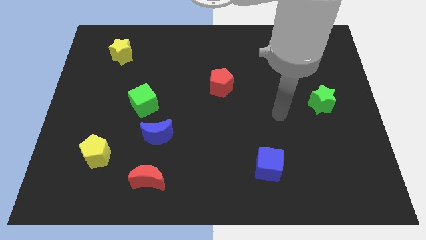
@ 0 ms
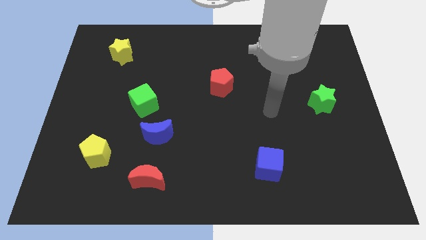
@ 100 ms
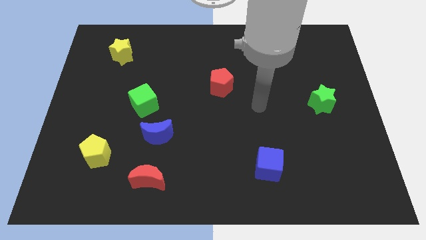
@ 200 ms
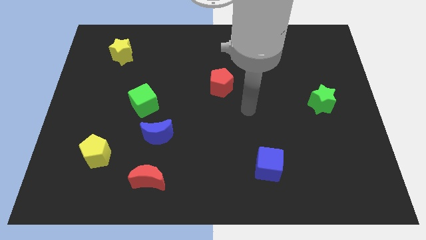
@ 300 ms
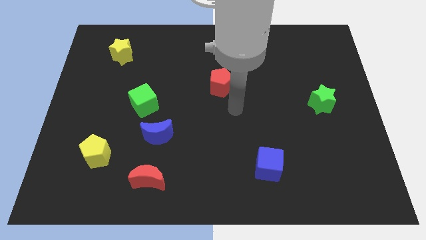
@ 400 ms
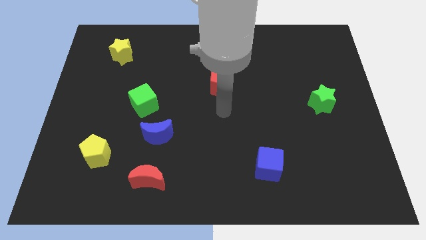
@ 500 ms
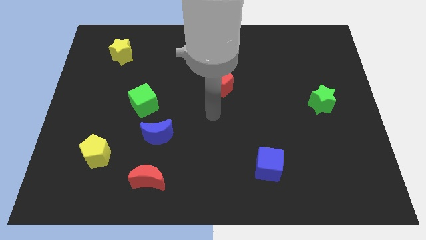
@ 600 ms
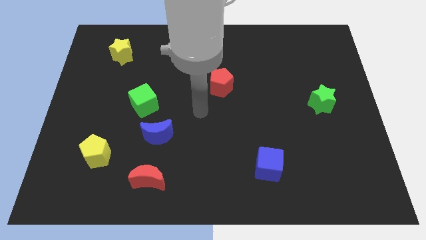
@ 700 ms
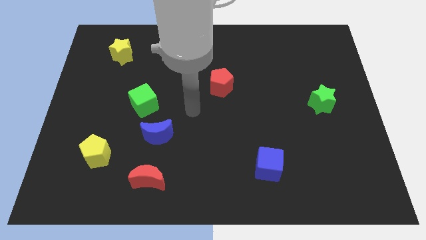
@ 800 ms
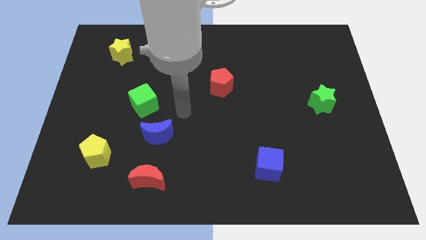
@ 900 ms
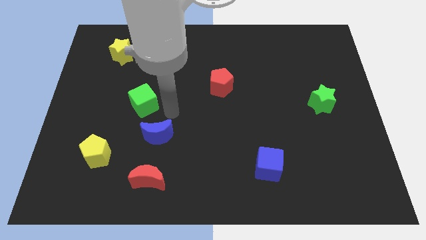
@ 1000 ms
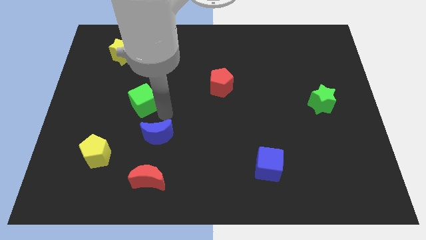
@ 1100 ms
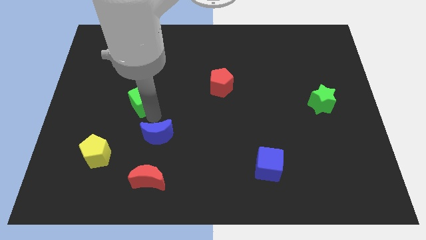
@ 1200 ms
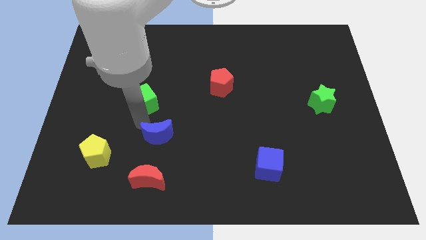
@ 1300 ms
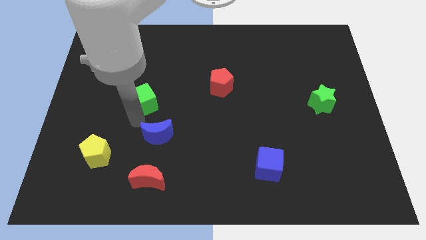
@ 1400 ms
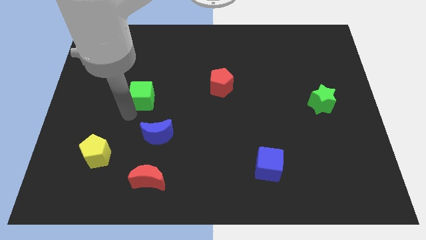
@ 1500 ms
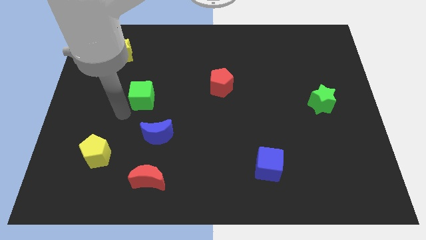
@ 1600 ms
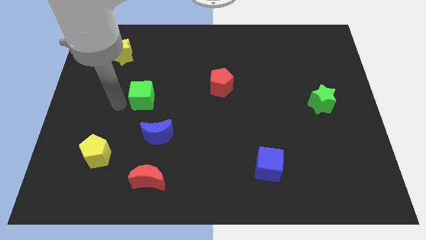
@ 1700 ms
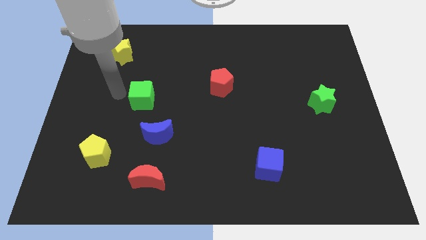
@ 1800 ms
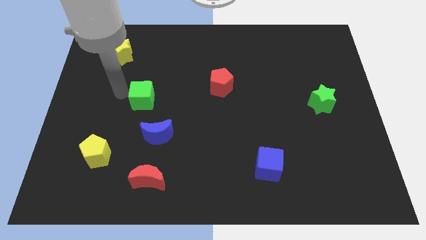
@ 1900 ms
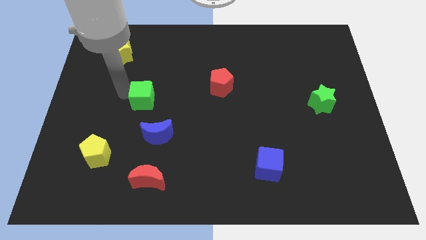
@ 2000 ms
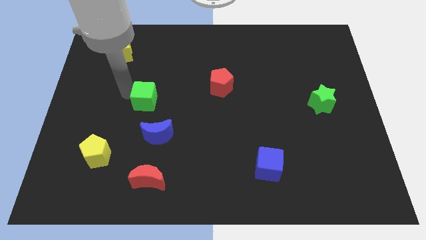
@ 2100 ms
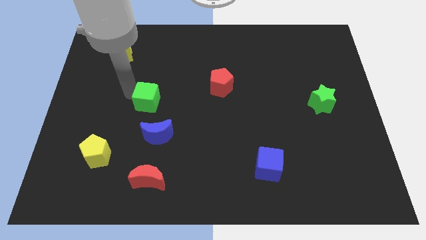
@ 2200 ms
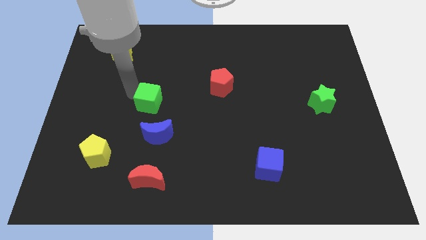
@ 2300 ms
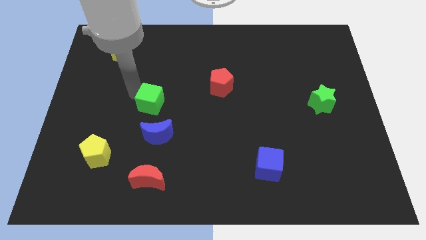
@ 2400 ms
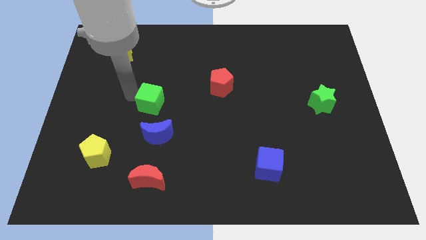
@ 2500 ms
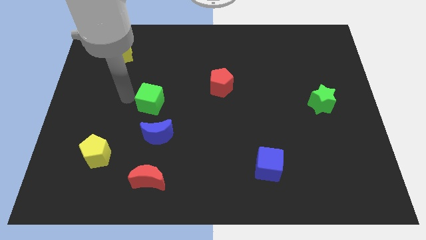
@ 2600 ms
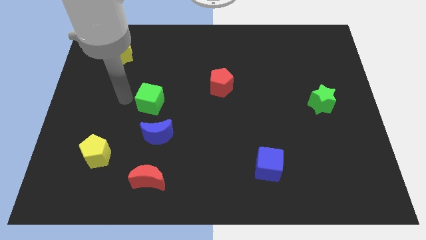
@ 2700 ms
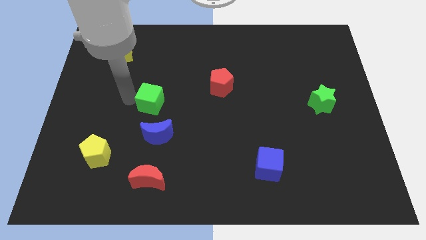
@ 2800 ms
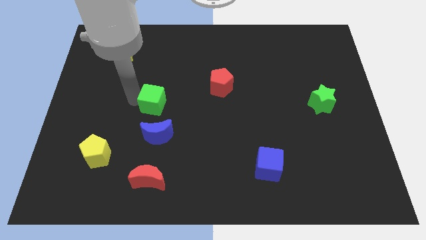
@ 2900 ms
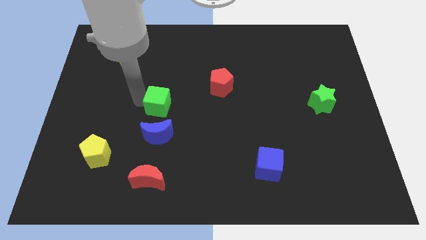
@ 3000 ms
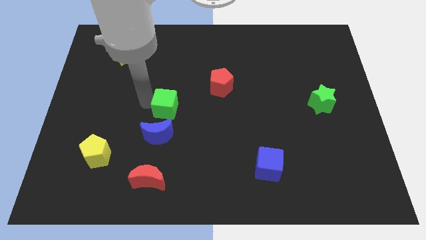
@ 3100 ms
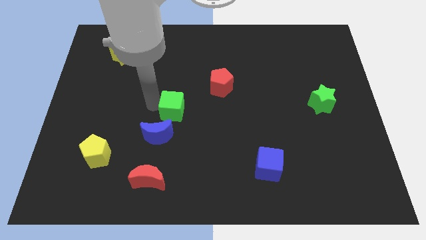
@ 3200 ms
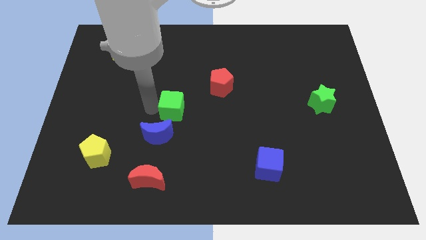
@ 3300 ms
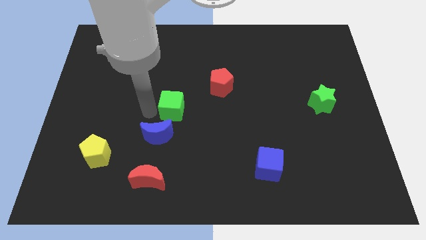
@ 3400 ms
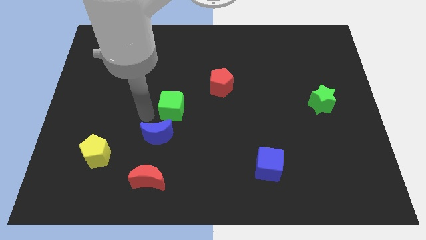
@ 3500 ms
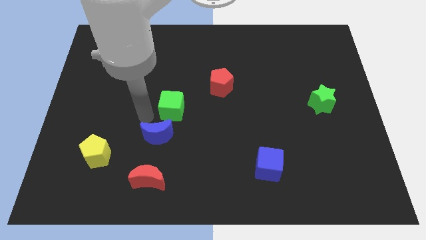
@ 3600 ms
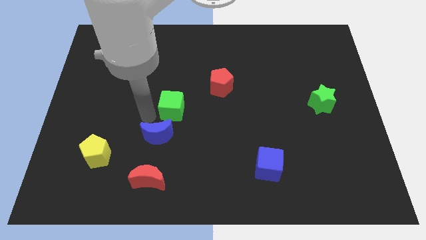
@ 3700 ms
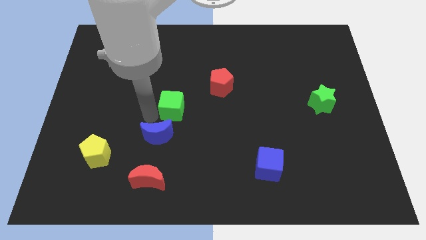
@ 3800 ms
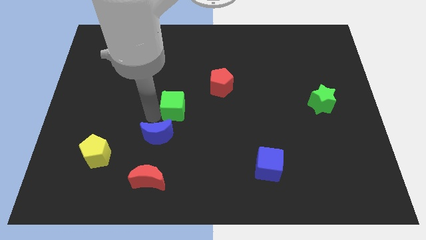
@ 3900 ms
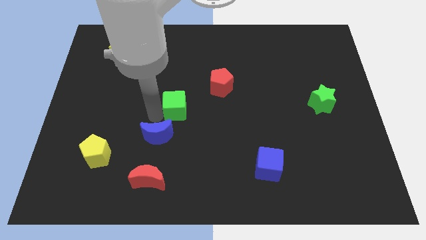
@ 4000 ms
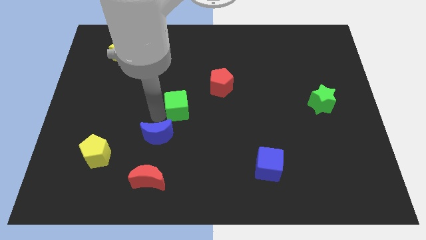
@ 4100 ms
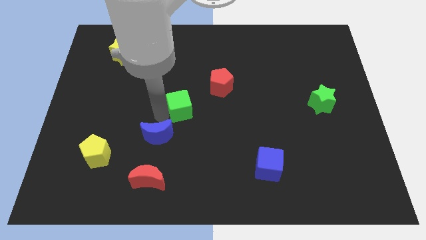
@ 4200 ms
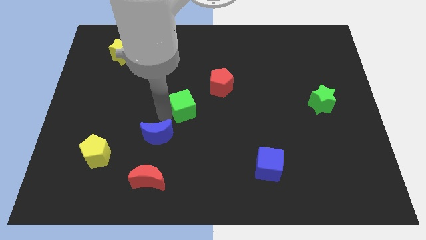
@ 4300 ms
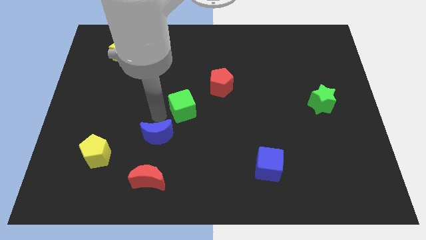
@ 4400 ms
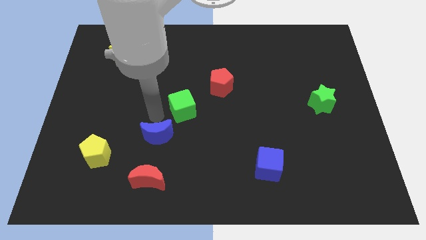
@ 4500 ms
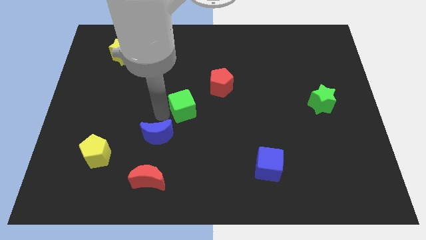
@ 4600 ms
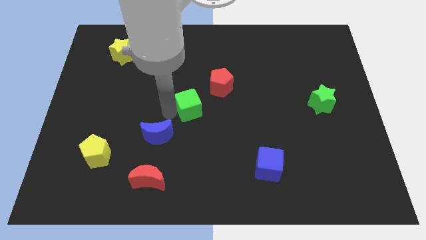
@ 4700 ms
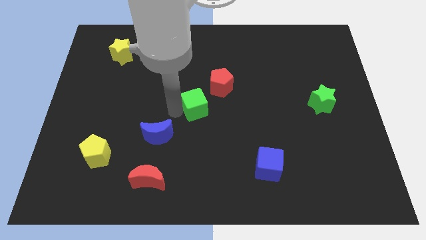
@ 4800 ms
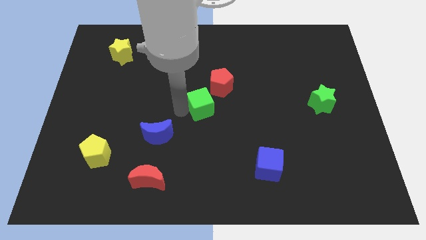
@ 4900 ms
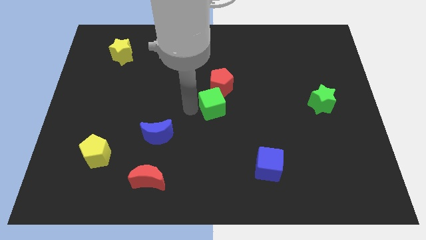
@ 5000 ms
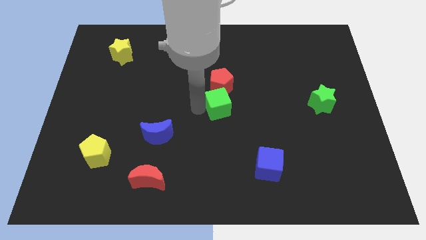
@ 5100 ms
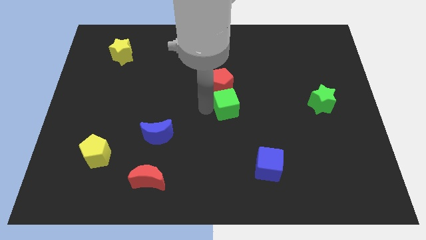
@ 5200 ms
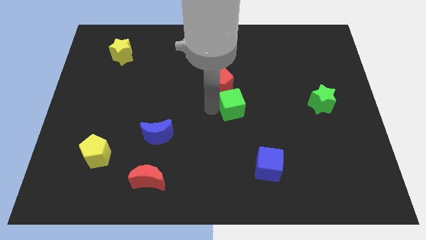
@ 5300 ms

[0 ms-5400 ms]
move the green cube right

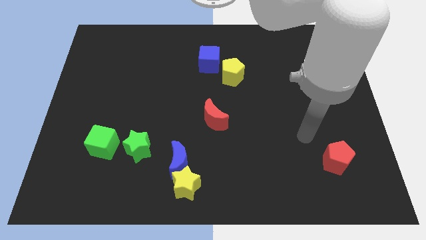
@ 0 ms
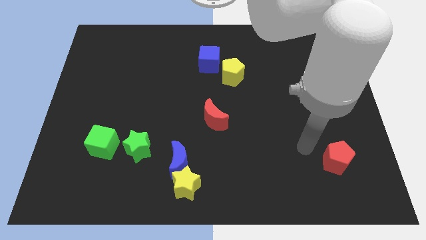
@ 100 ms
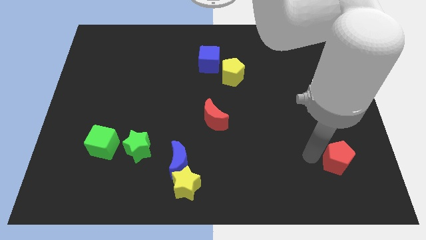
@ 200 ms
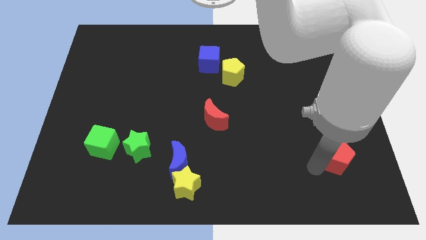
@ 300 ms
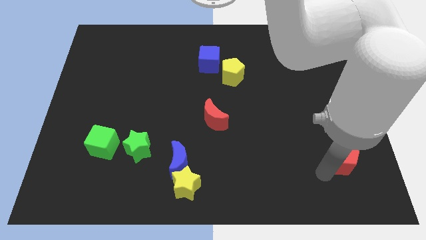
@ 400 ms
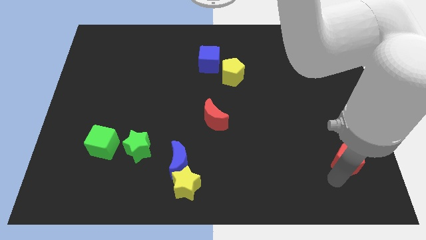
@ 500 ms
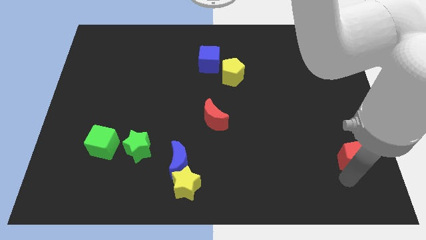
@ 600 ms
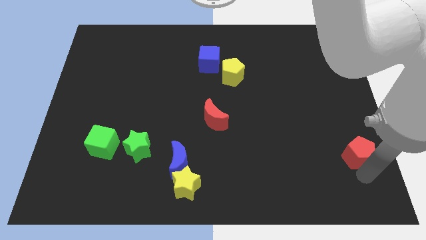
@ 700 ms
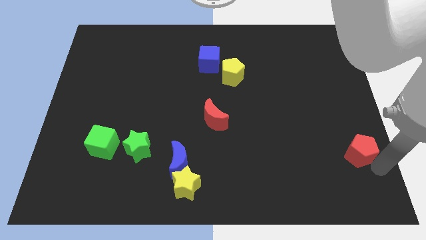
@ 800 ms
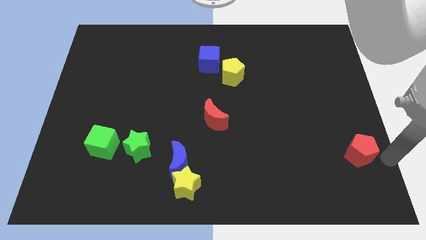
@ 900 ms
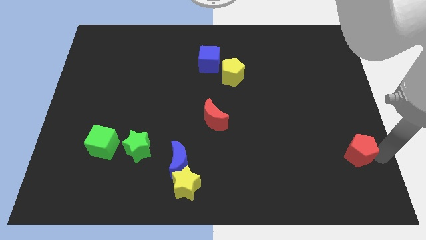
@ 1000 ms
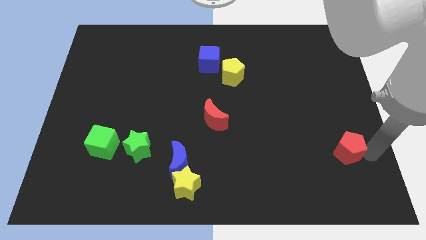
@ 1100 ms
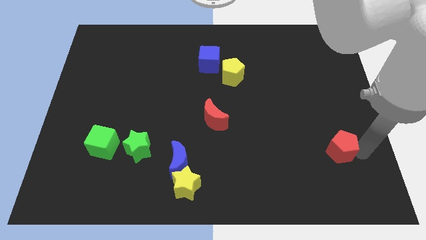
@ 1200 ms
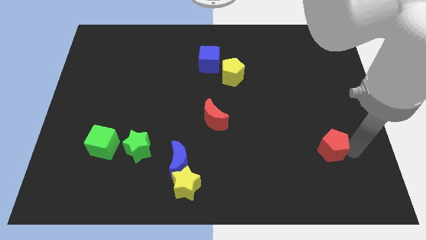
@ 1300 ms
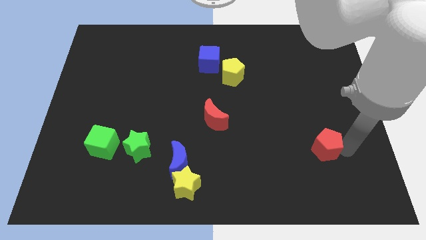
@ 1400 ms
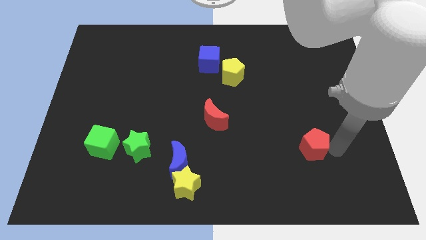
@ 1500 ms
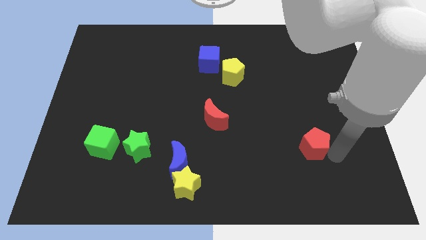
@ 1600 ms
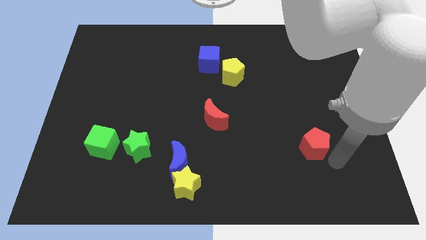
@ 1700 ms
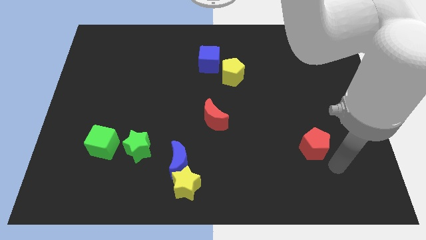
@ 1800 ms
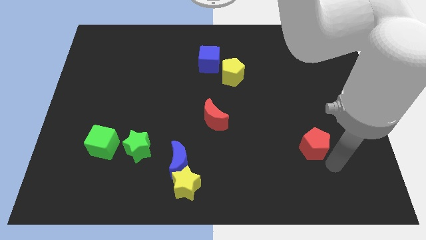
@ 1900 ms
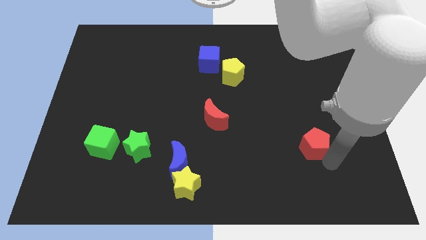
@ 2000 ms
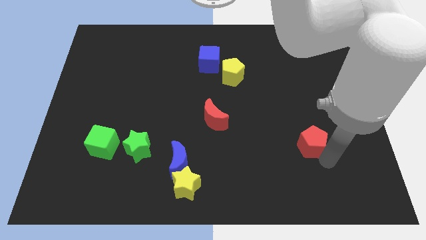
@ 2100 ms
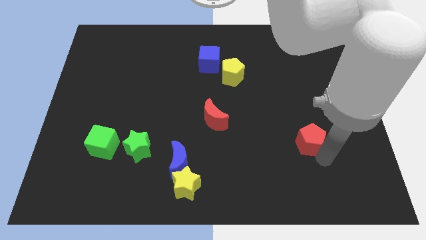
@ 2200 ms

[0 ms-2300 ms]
slightly move the red pentagon diagonally up and to the left

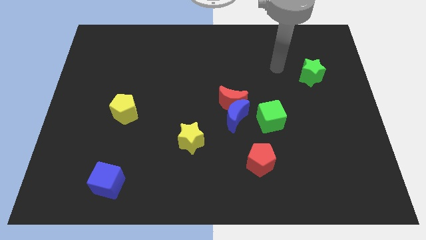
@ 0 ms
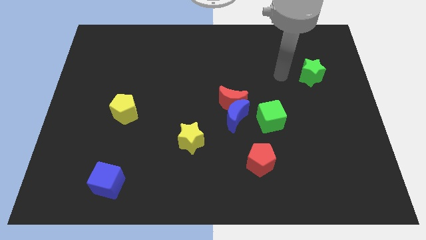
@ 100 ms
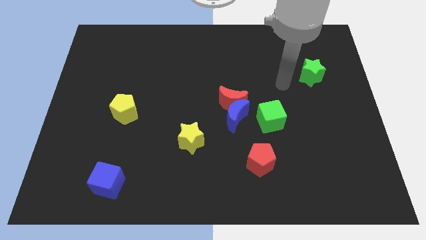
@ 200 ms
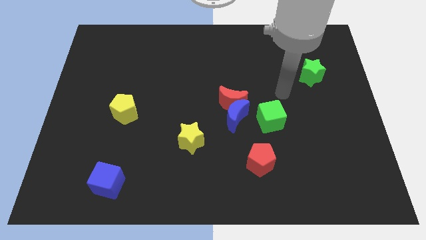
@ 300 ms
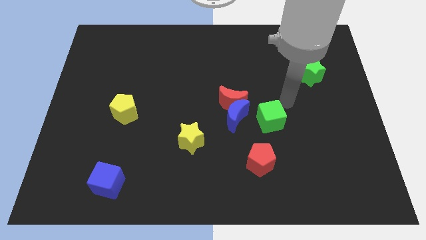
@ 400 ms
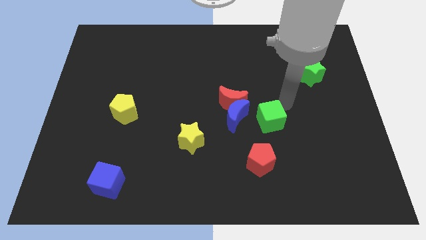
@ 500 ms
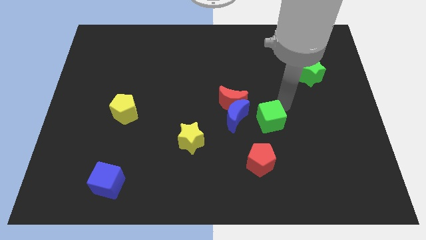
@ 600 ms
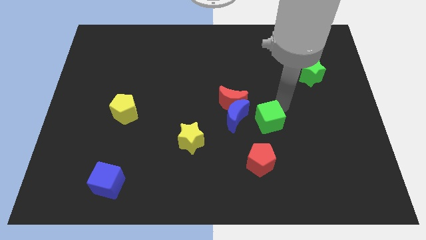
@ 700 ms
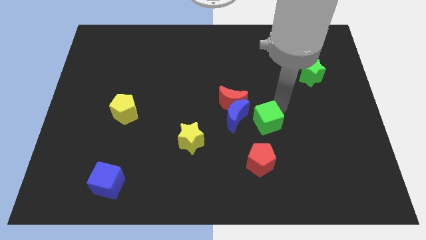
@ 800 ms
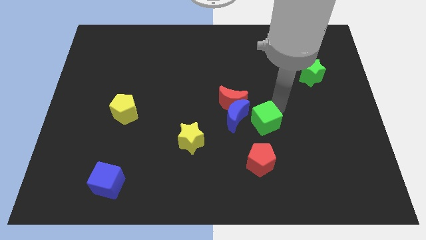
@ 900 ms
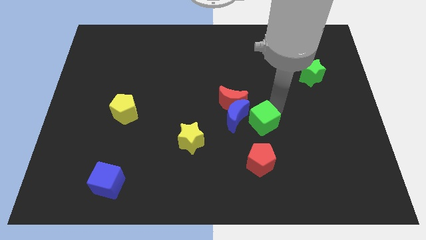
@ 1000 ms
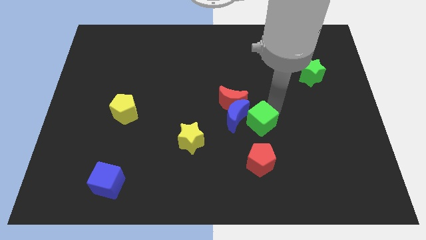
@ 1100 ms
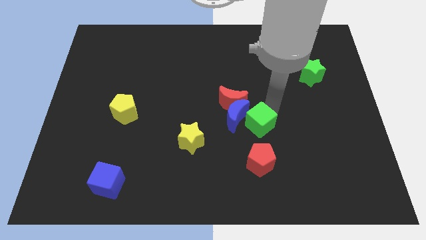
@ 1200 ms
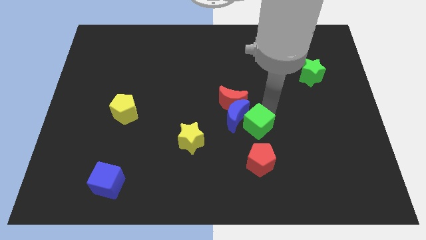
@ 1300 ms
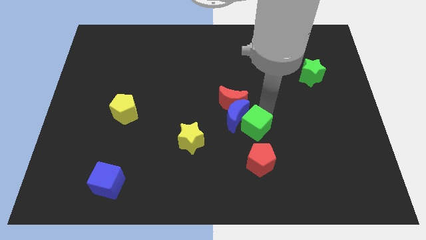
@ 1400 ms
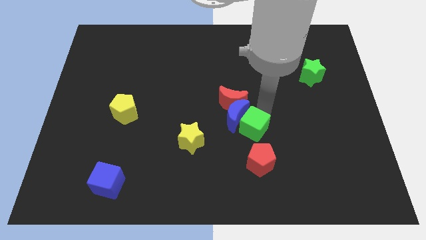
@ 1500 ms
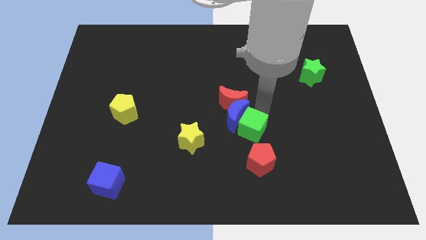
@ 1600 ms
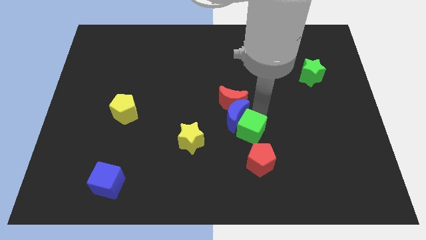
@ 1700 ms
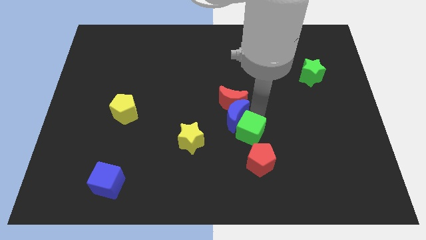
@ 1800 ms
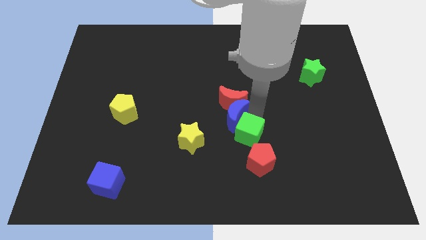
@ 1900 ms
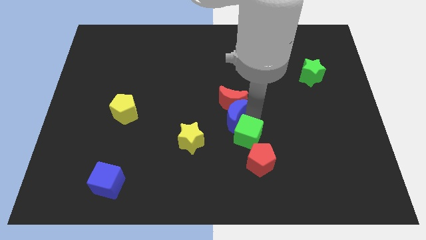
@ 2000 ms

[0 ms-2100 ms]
slightly move the green cube downwards and then left
